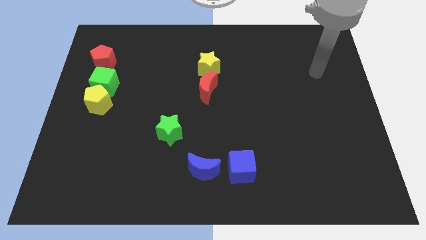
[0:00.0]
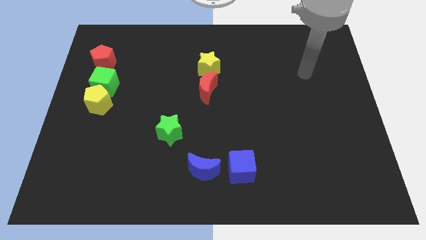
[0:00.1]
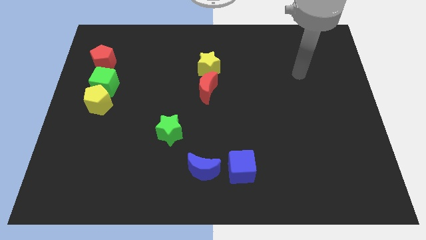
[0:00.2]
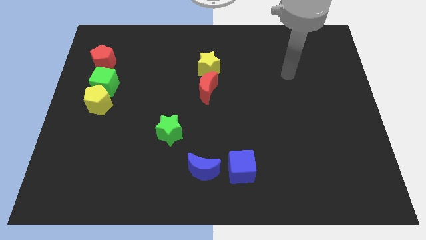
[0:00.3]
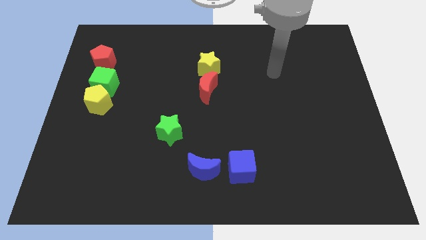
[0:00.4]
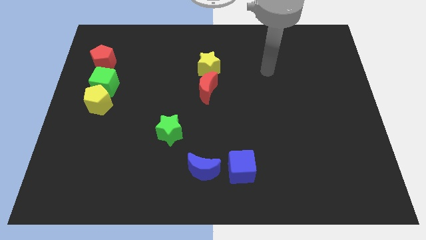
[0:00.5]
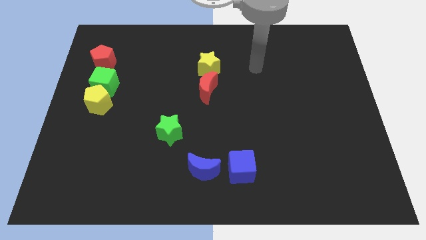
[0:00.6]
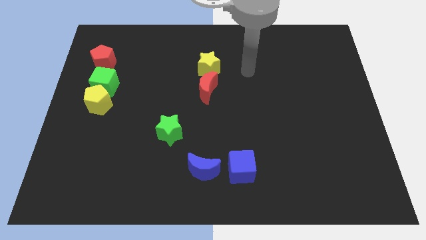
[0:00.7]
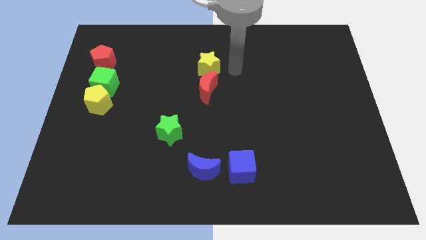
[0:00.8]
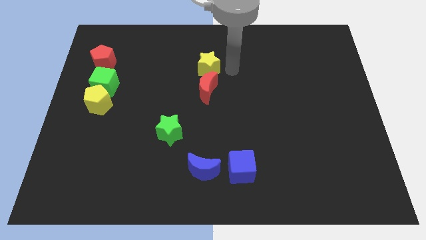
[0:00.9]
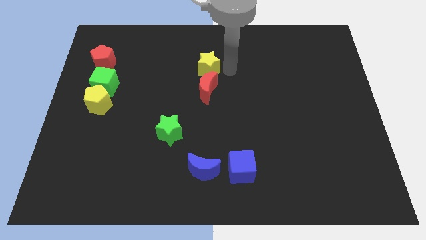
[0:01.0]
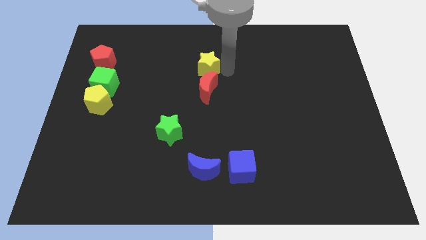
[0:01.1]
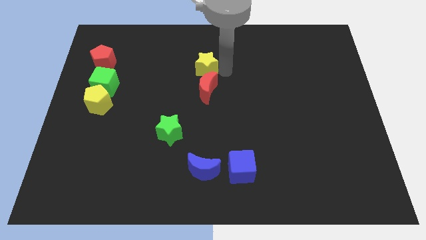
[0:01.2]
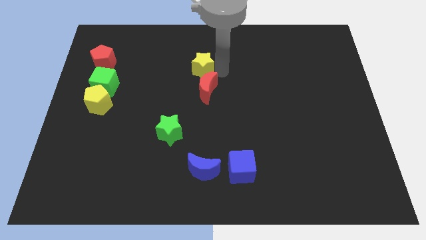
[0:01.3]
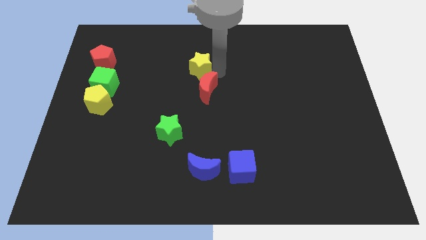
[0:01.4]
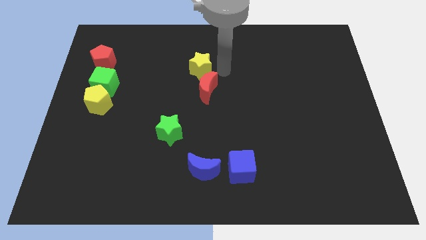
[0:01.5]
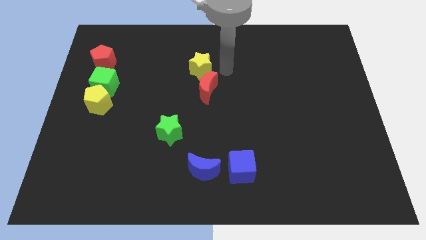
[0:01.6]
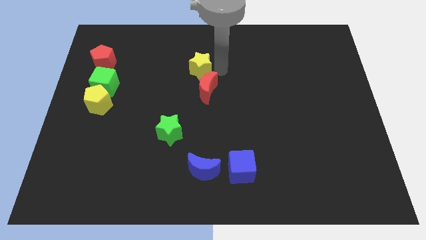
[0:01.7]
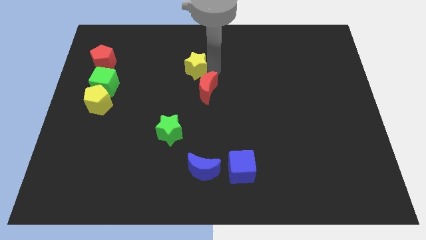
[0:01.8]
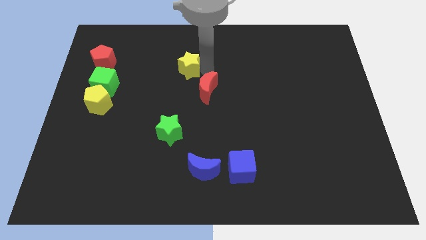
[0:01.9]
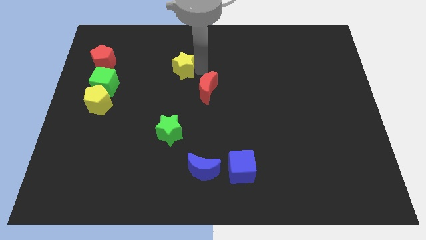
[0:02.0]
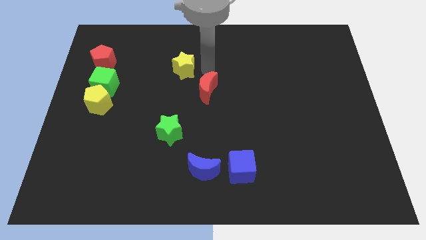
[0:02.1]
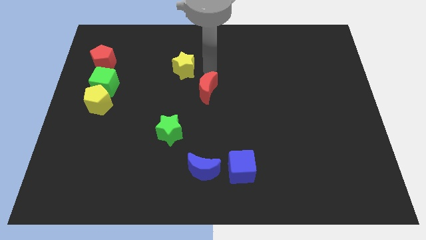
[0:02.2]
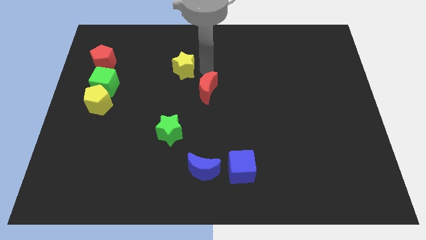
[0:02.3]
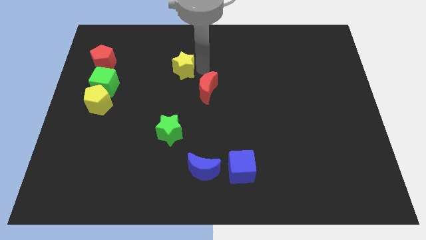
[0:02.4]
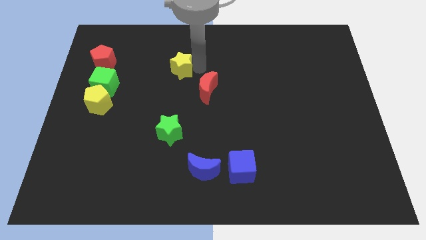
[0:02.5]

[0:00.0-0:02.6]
slightly move the yellow star left

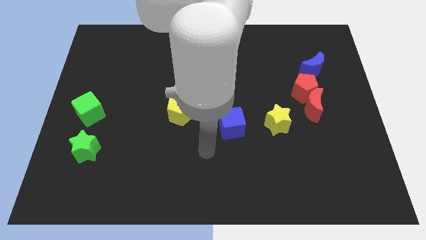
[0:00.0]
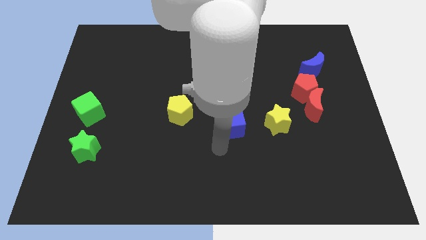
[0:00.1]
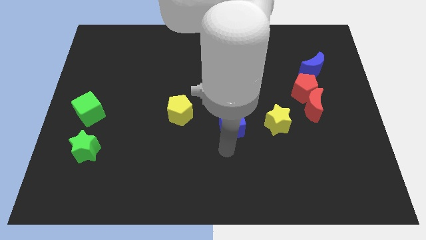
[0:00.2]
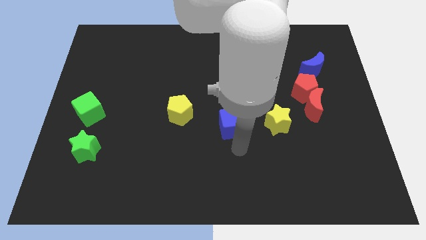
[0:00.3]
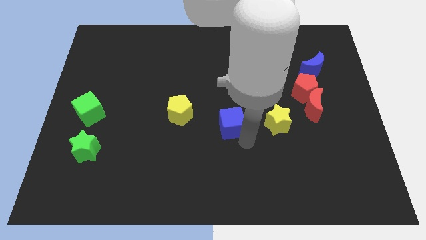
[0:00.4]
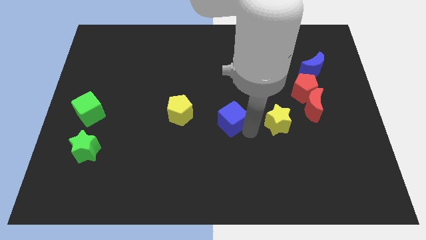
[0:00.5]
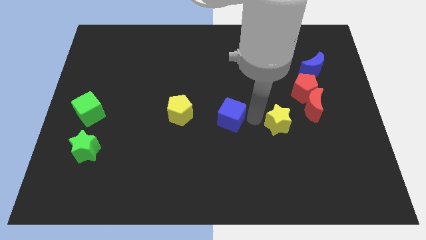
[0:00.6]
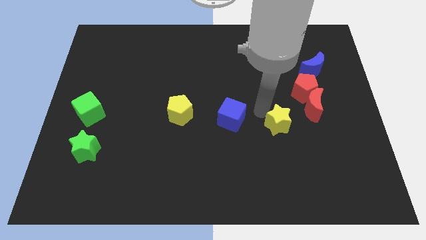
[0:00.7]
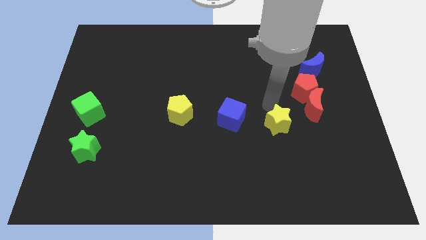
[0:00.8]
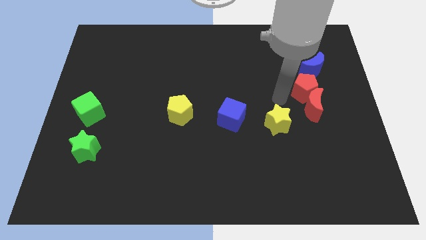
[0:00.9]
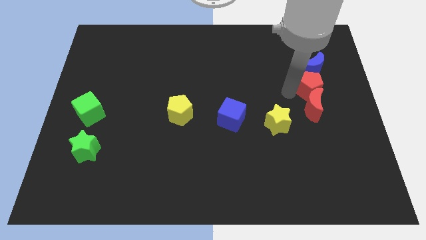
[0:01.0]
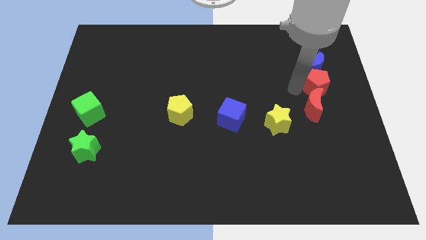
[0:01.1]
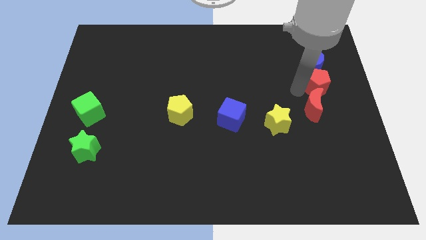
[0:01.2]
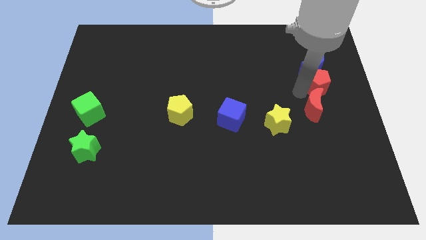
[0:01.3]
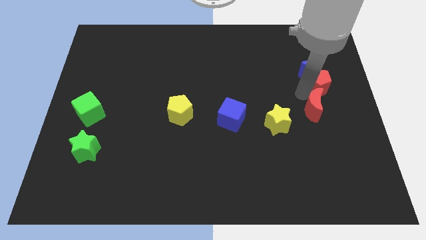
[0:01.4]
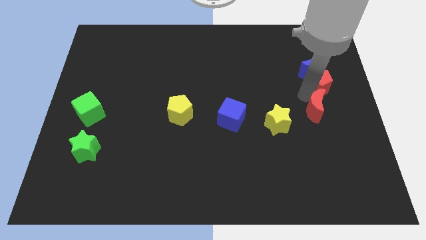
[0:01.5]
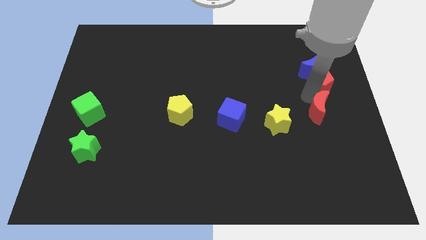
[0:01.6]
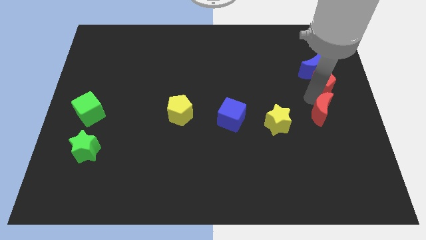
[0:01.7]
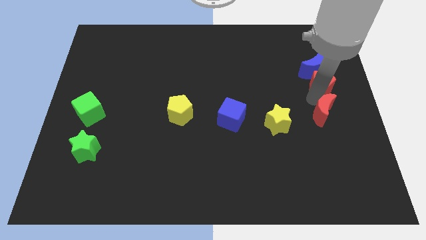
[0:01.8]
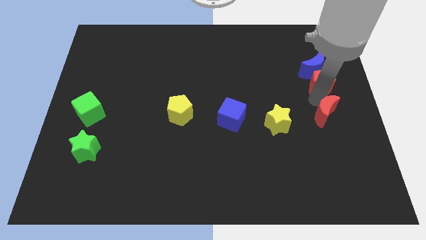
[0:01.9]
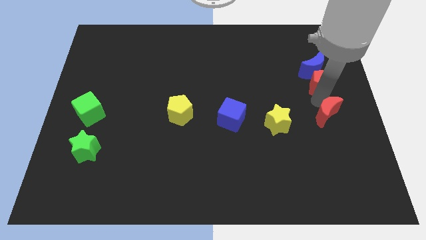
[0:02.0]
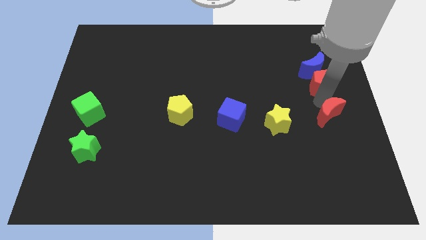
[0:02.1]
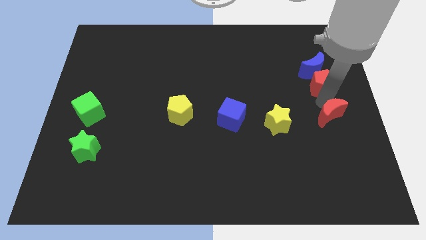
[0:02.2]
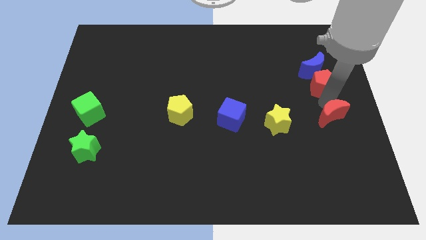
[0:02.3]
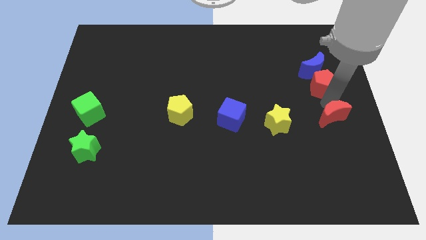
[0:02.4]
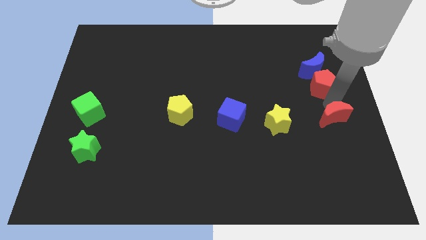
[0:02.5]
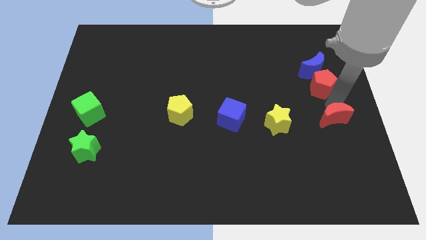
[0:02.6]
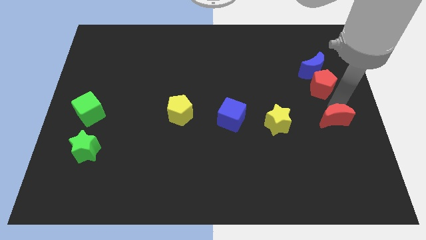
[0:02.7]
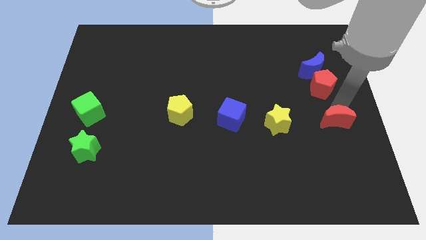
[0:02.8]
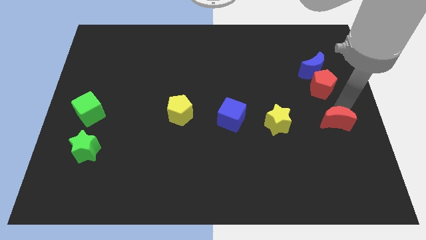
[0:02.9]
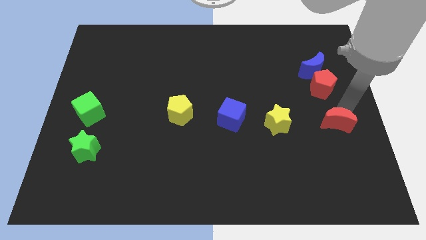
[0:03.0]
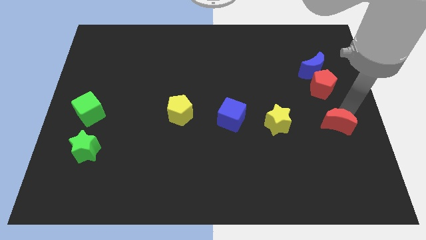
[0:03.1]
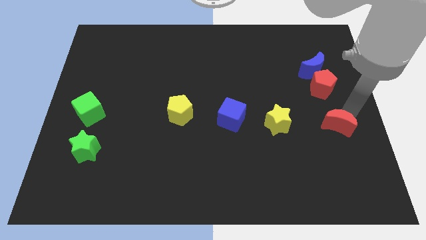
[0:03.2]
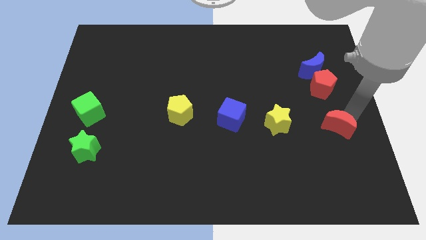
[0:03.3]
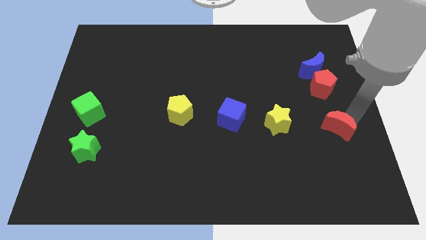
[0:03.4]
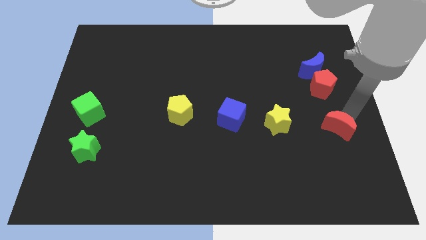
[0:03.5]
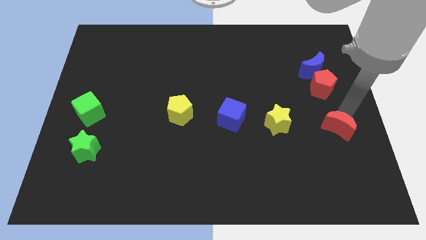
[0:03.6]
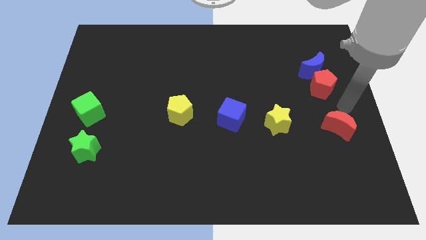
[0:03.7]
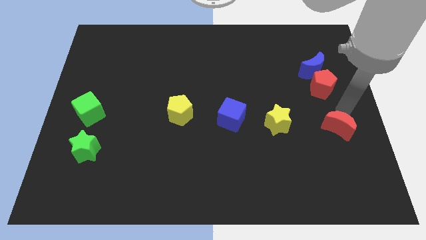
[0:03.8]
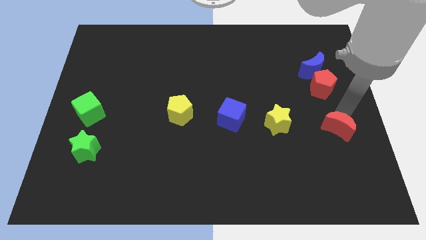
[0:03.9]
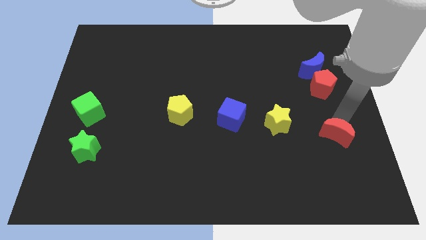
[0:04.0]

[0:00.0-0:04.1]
slide the red moon somewhat down

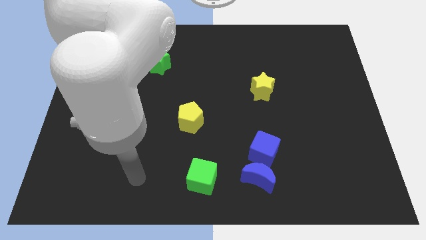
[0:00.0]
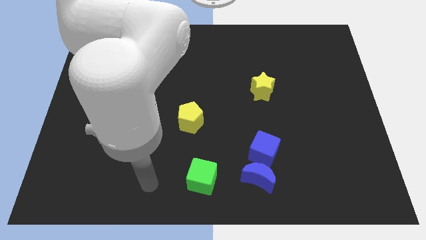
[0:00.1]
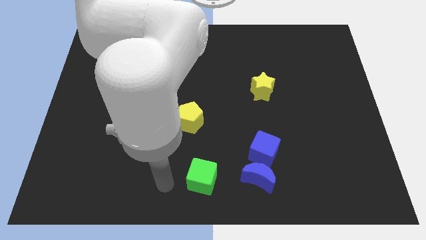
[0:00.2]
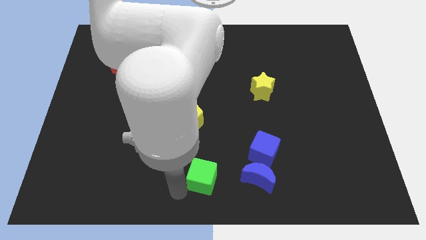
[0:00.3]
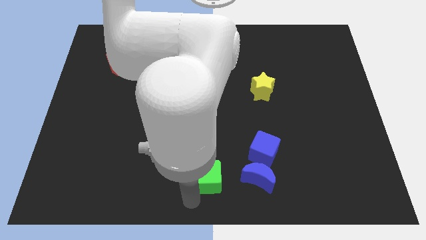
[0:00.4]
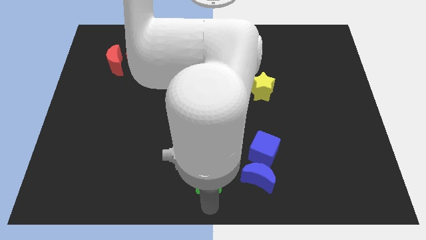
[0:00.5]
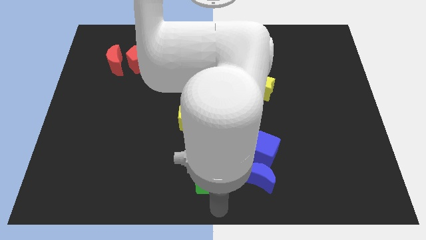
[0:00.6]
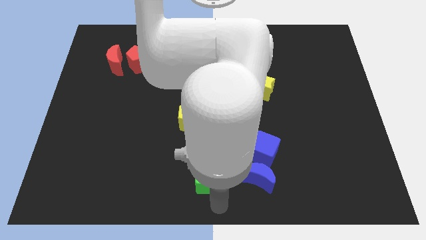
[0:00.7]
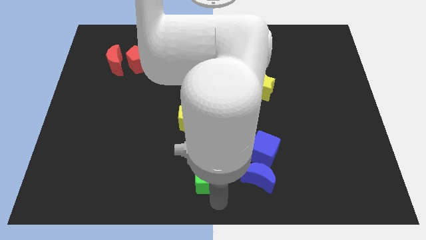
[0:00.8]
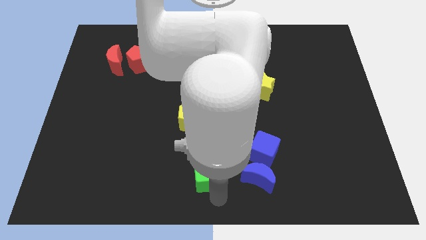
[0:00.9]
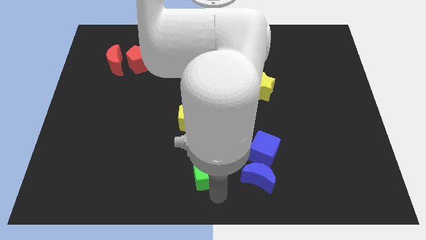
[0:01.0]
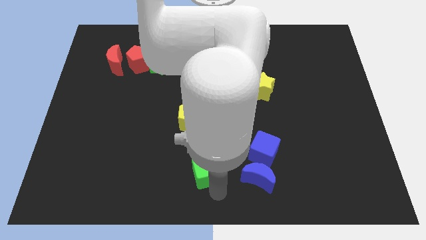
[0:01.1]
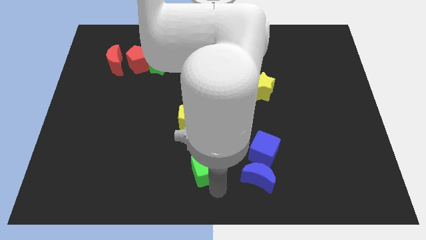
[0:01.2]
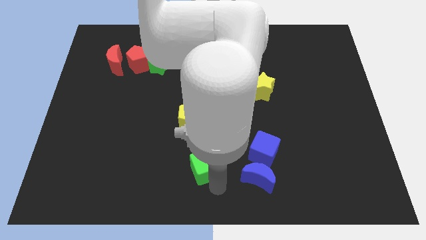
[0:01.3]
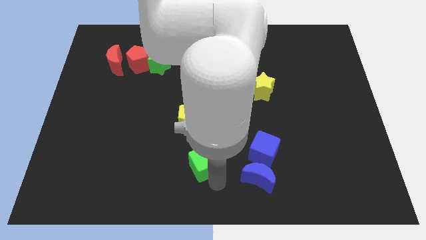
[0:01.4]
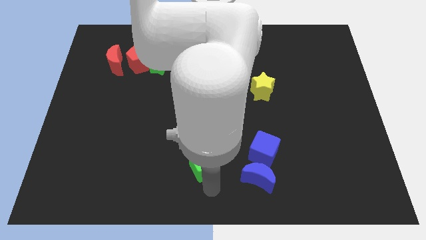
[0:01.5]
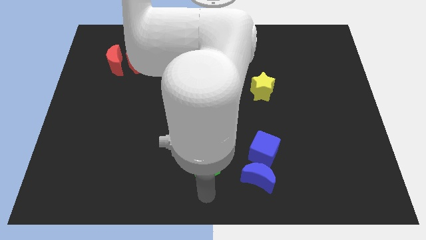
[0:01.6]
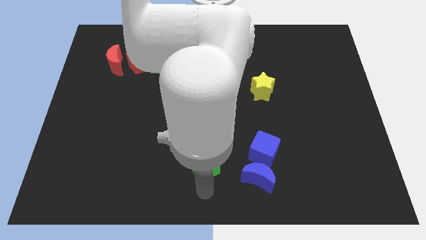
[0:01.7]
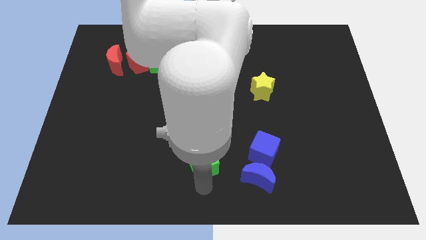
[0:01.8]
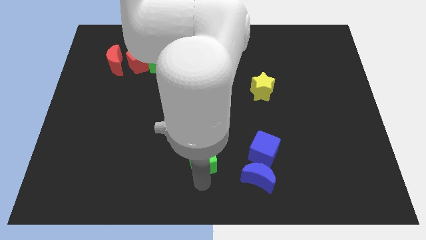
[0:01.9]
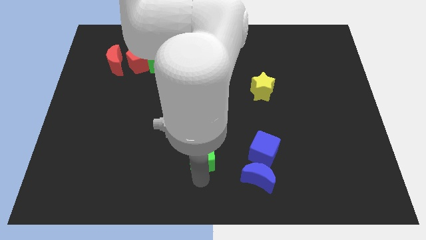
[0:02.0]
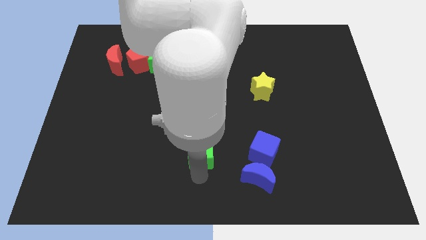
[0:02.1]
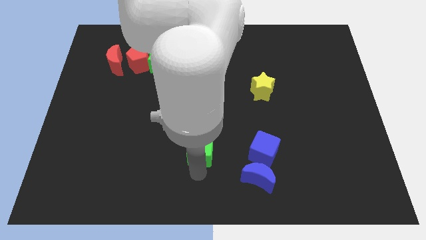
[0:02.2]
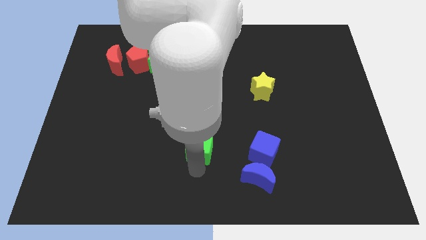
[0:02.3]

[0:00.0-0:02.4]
push the green cube up a little bit
